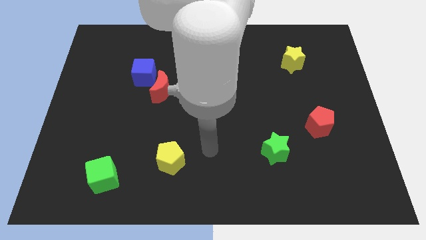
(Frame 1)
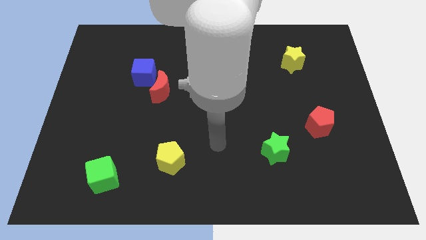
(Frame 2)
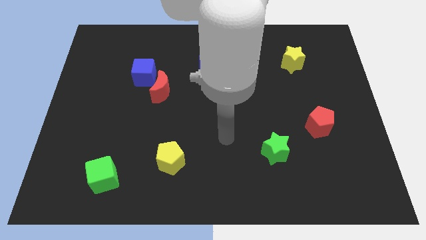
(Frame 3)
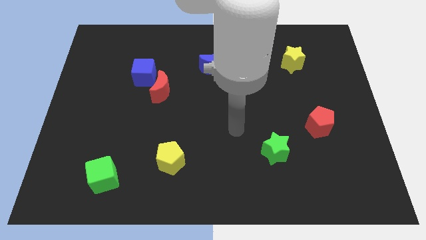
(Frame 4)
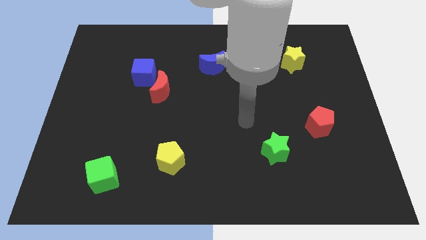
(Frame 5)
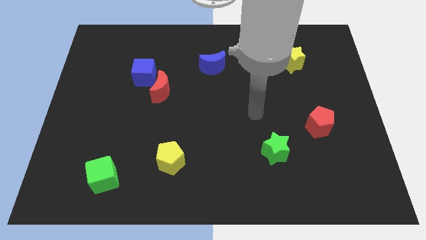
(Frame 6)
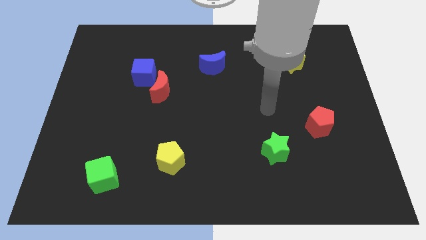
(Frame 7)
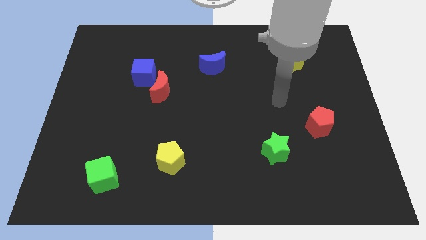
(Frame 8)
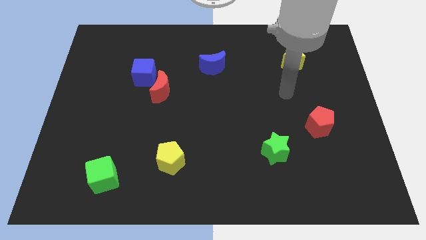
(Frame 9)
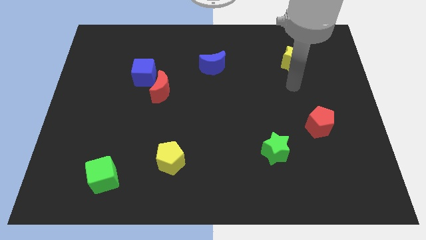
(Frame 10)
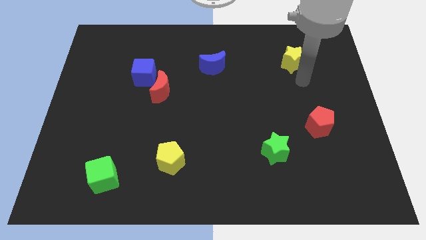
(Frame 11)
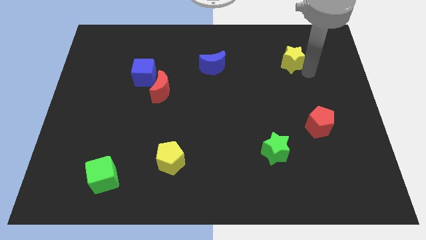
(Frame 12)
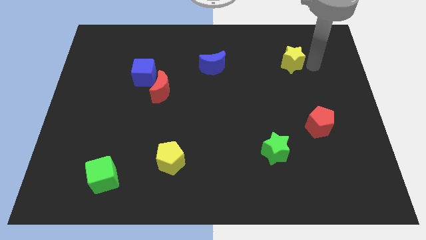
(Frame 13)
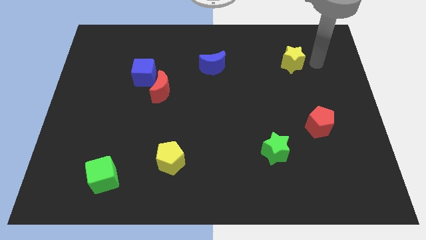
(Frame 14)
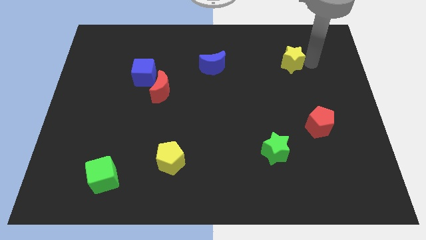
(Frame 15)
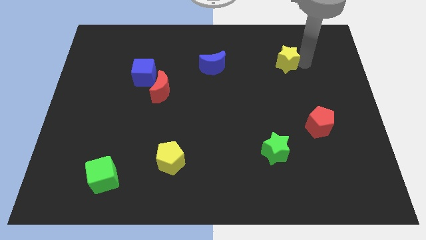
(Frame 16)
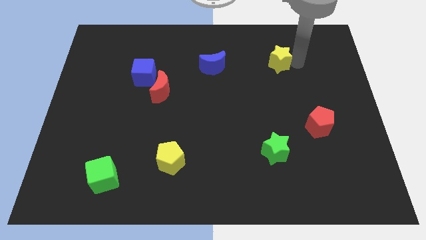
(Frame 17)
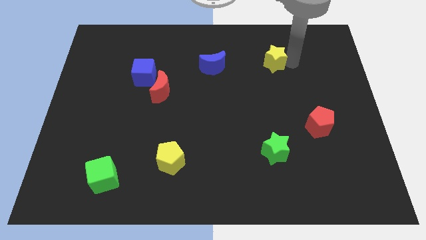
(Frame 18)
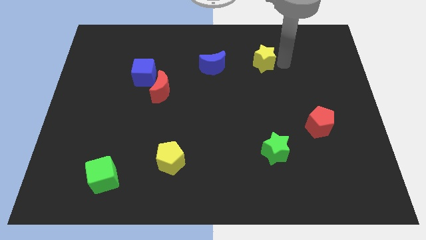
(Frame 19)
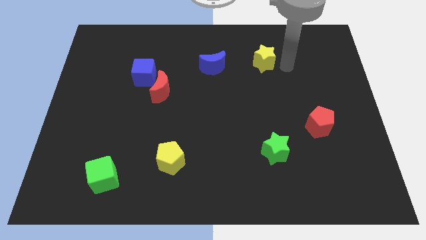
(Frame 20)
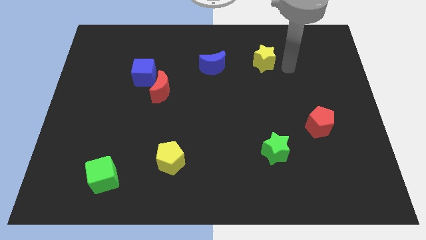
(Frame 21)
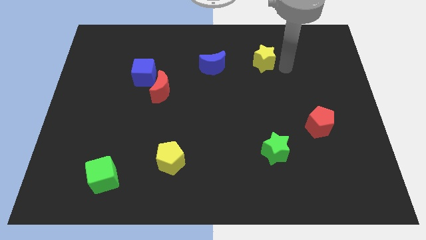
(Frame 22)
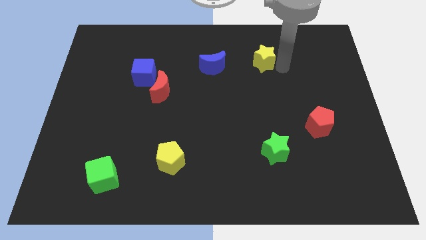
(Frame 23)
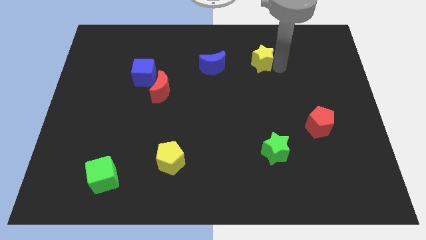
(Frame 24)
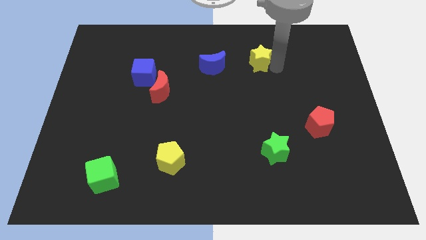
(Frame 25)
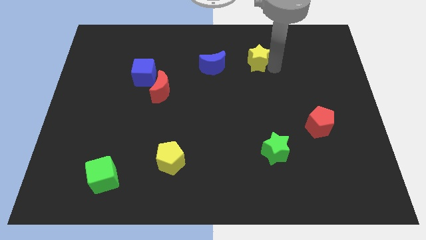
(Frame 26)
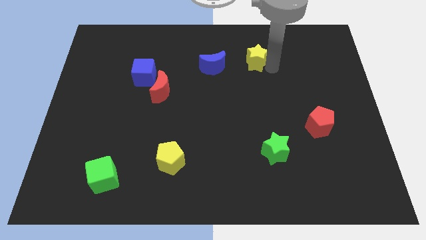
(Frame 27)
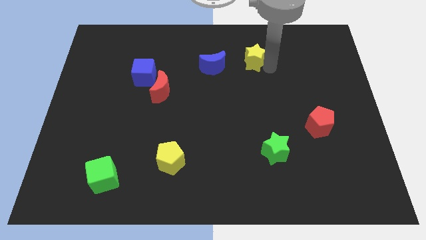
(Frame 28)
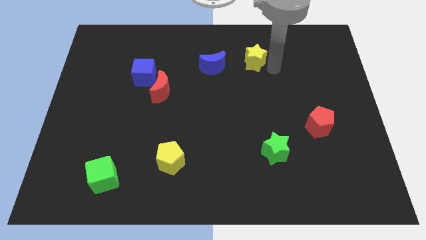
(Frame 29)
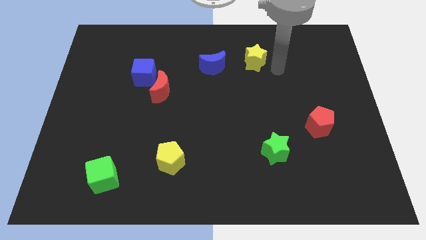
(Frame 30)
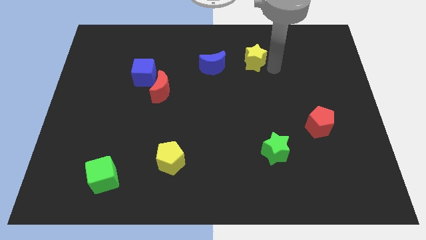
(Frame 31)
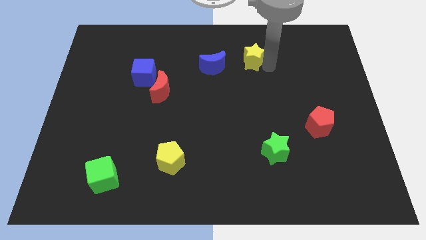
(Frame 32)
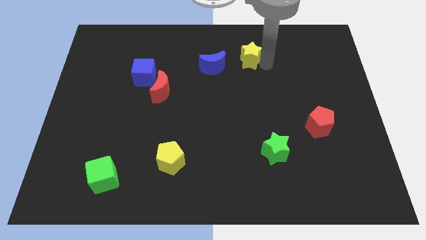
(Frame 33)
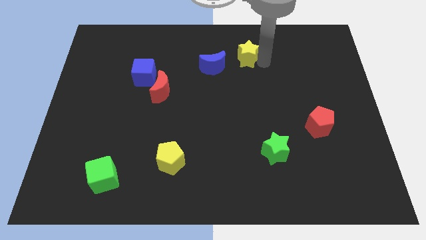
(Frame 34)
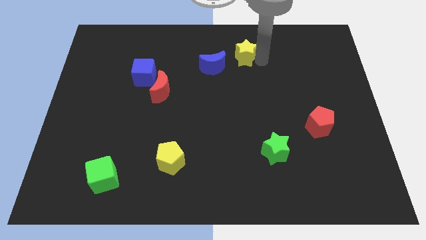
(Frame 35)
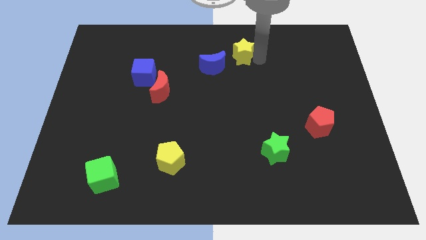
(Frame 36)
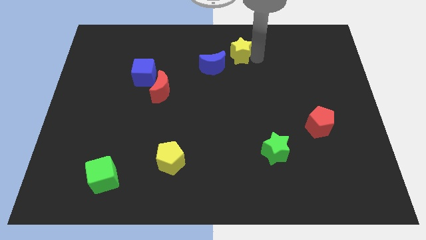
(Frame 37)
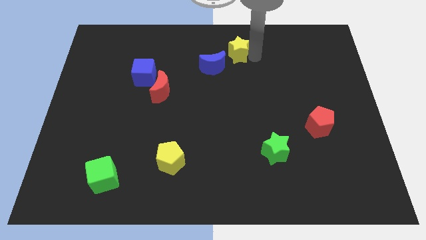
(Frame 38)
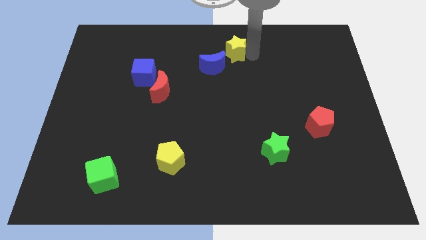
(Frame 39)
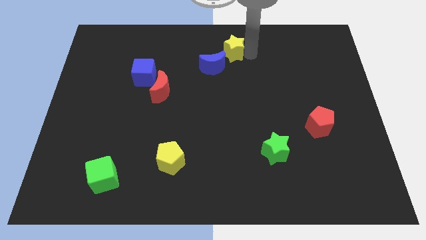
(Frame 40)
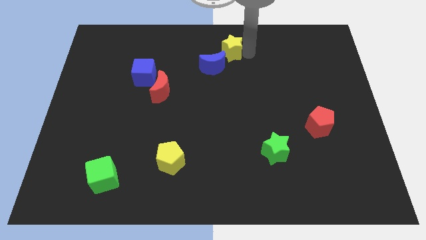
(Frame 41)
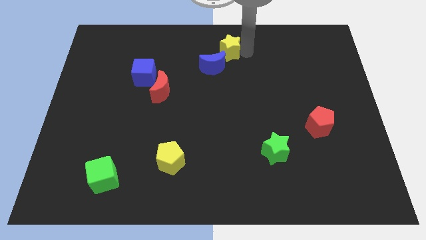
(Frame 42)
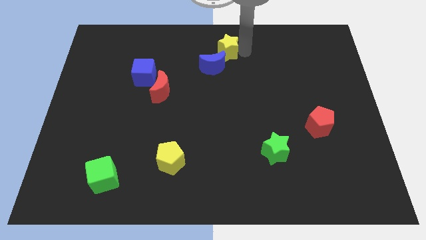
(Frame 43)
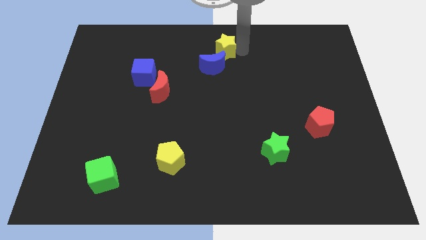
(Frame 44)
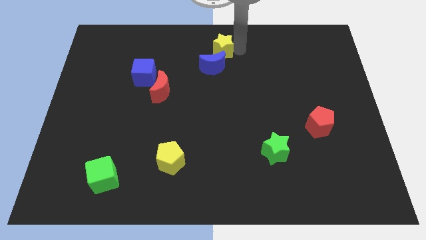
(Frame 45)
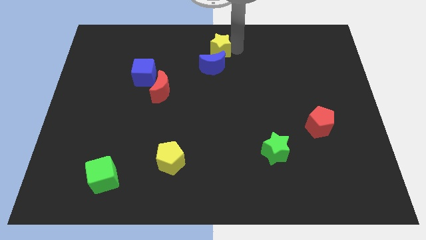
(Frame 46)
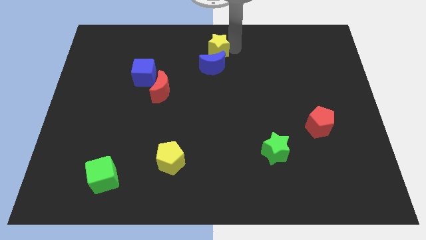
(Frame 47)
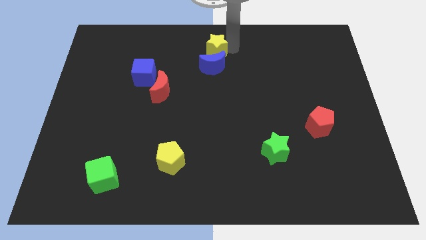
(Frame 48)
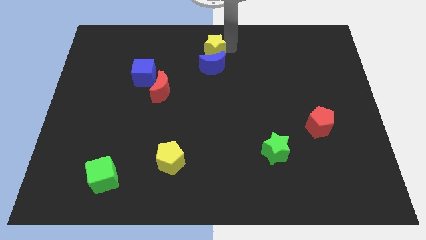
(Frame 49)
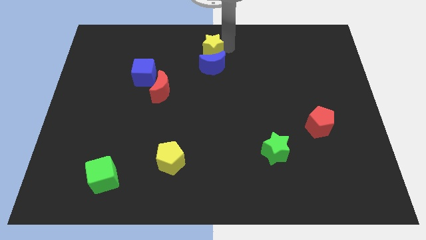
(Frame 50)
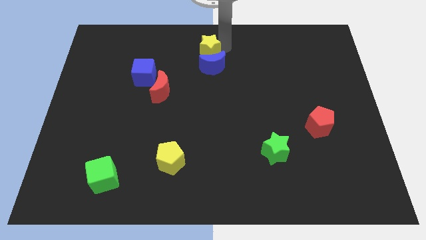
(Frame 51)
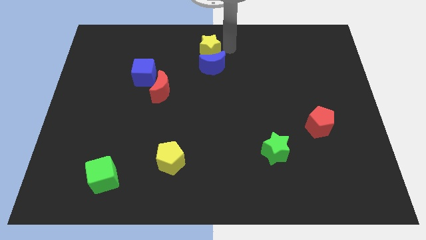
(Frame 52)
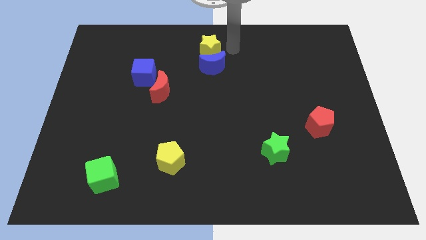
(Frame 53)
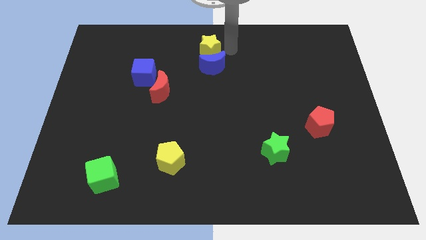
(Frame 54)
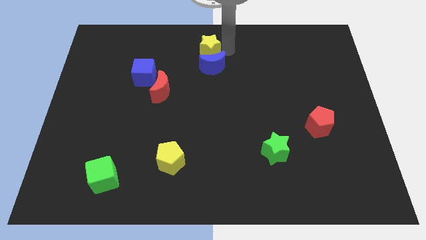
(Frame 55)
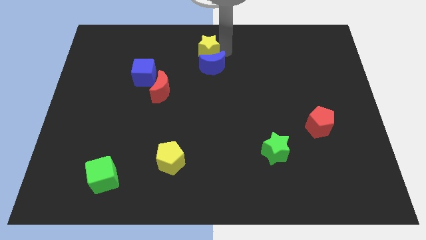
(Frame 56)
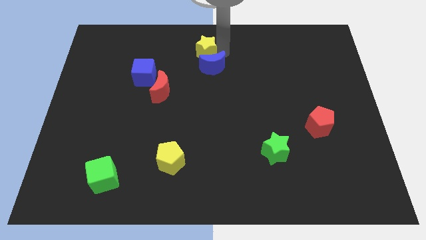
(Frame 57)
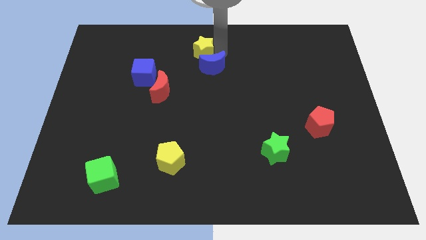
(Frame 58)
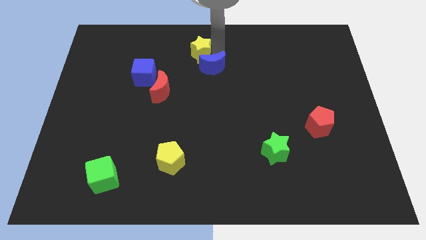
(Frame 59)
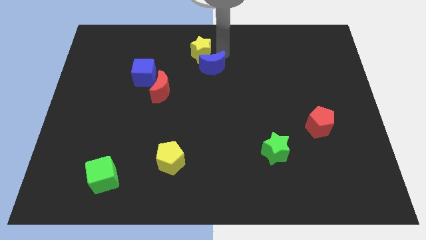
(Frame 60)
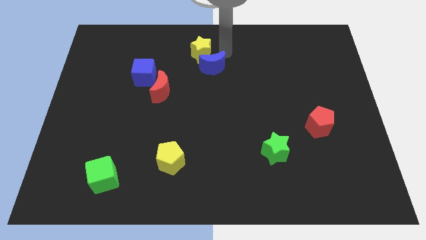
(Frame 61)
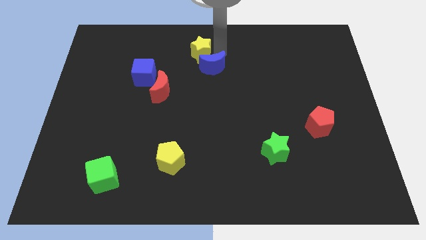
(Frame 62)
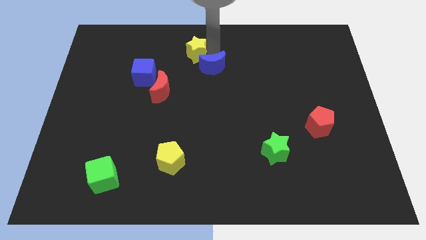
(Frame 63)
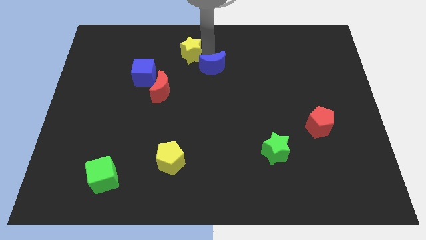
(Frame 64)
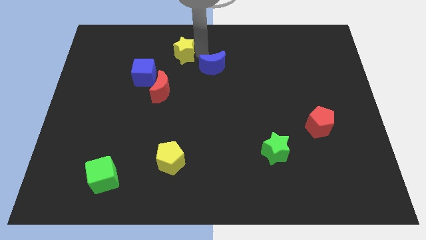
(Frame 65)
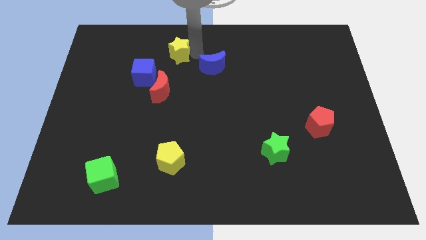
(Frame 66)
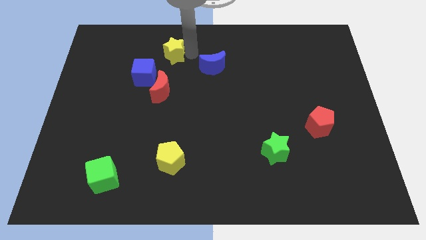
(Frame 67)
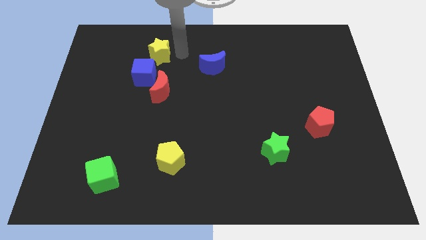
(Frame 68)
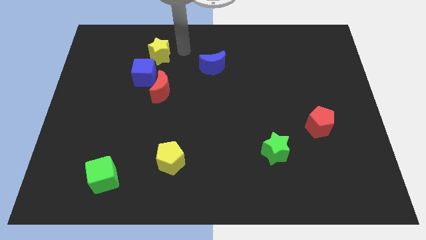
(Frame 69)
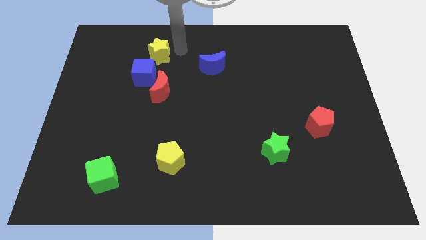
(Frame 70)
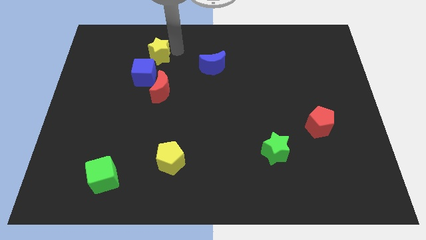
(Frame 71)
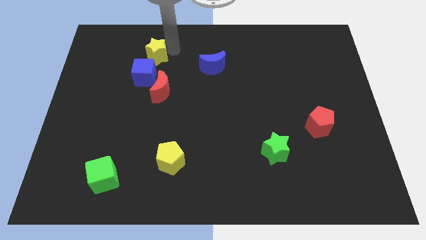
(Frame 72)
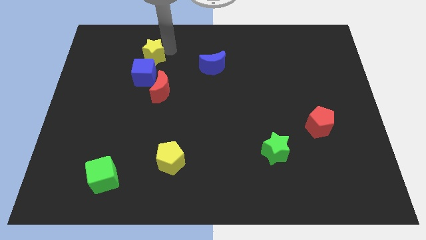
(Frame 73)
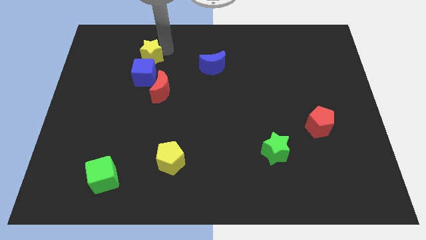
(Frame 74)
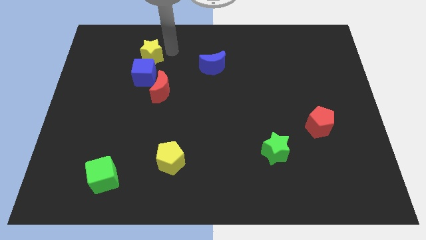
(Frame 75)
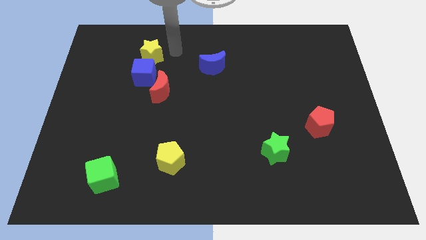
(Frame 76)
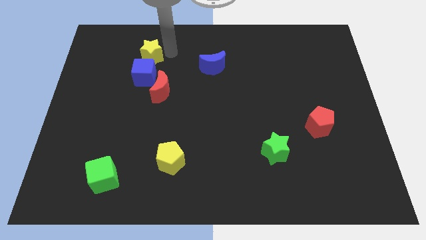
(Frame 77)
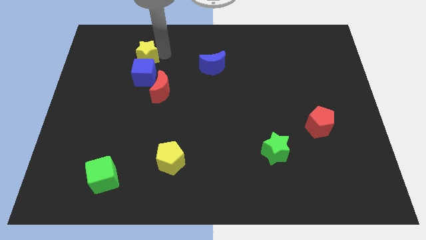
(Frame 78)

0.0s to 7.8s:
put the yellow star to the top left of the blue cube
